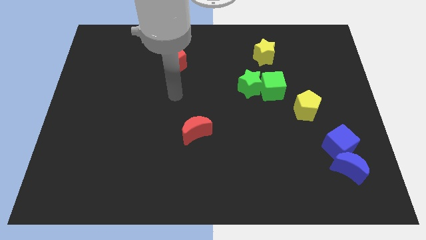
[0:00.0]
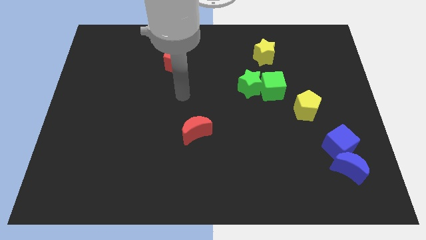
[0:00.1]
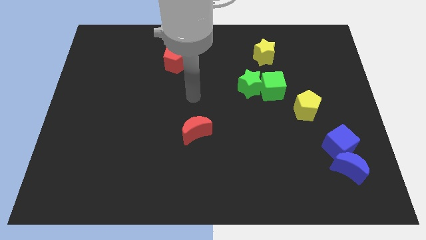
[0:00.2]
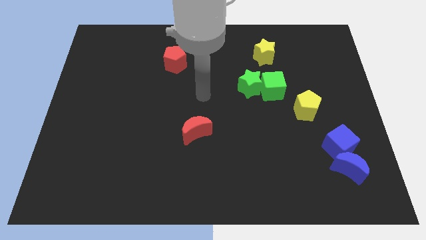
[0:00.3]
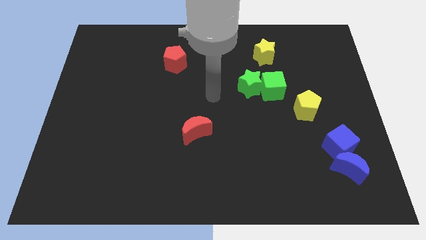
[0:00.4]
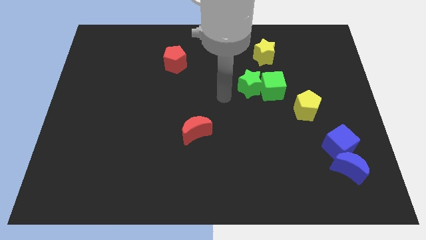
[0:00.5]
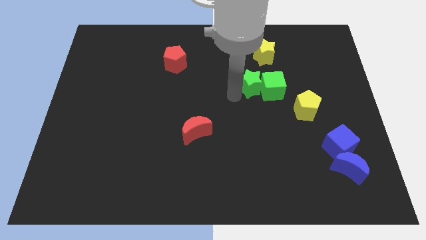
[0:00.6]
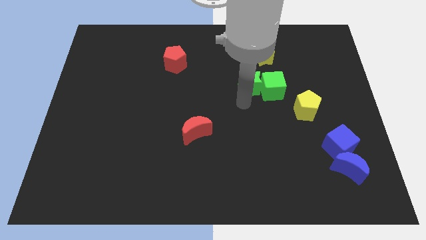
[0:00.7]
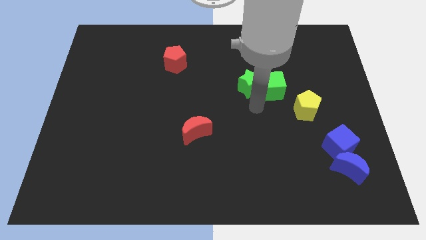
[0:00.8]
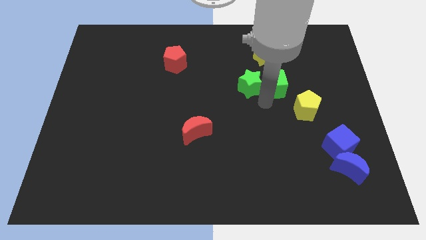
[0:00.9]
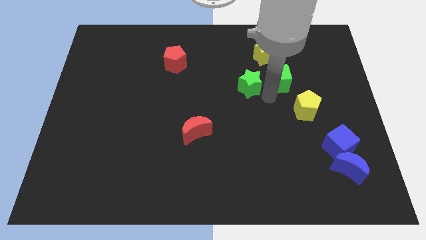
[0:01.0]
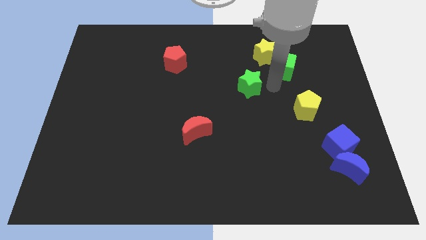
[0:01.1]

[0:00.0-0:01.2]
move the green star away from the green cube

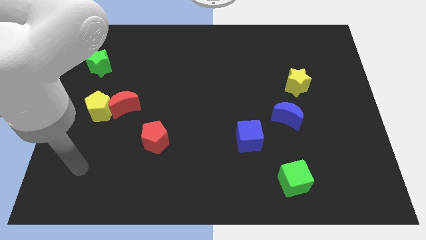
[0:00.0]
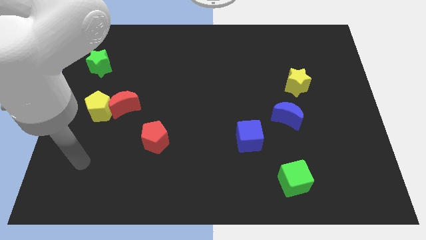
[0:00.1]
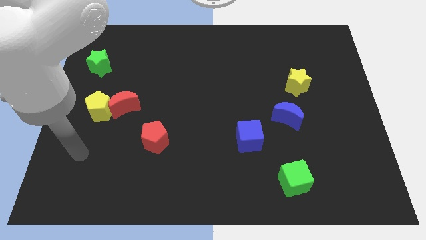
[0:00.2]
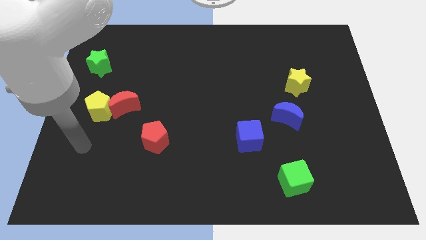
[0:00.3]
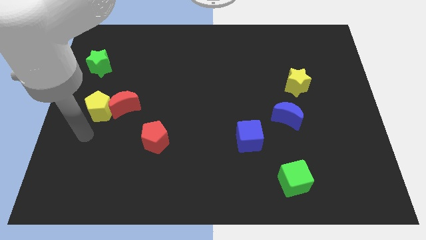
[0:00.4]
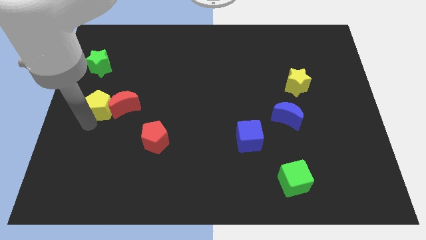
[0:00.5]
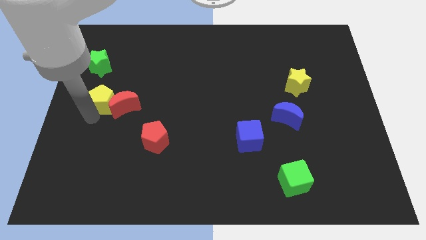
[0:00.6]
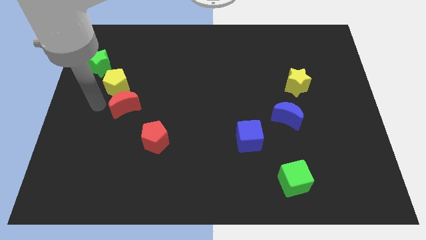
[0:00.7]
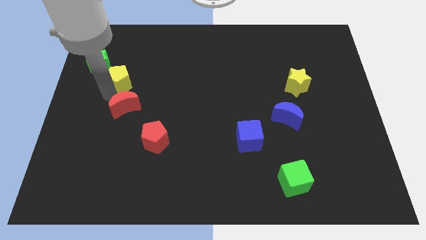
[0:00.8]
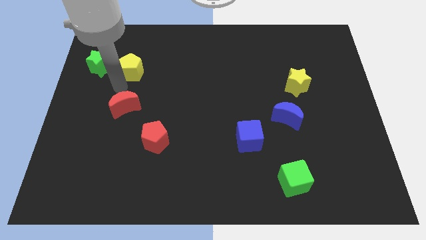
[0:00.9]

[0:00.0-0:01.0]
pull the red moon apart from the yellow pentagon

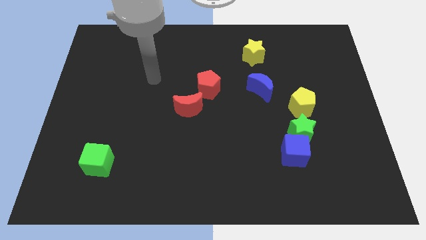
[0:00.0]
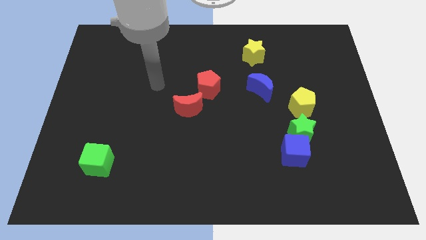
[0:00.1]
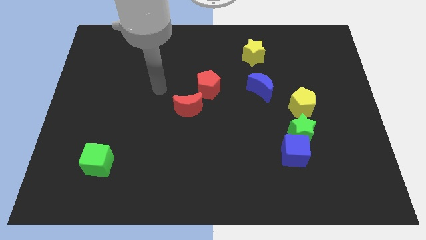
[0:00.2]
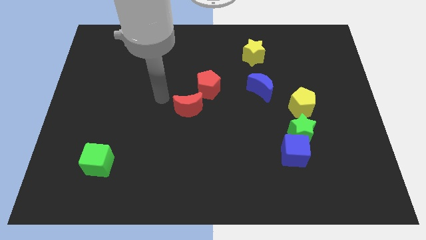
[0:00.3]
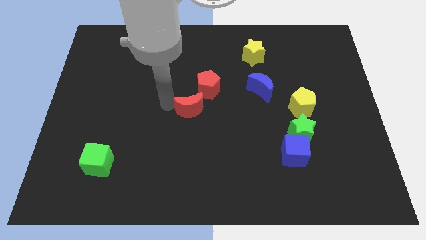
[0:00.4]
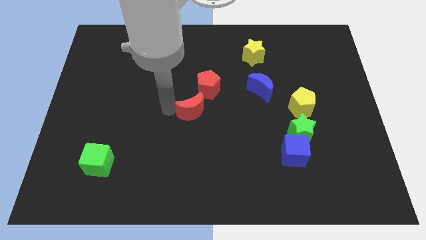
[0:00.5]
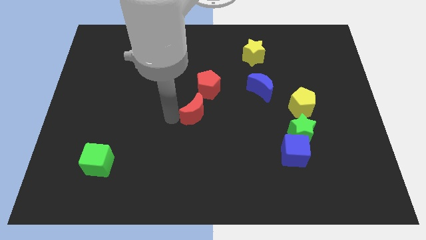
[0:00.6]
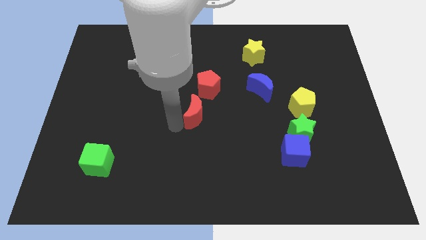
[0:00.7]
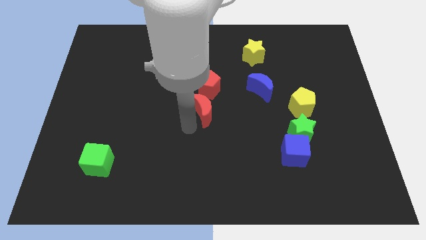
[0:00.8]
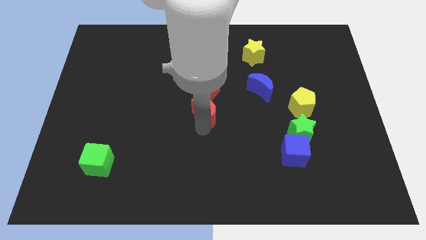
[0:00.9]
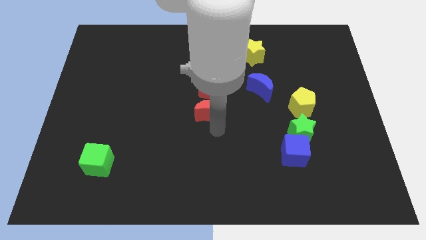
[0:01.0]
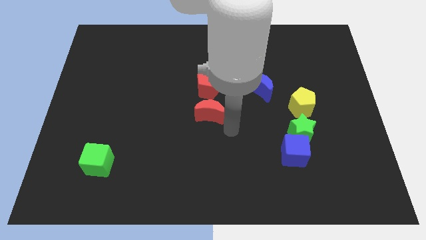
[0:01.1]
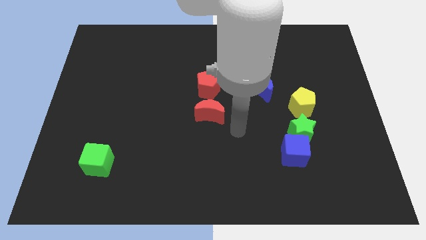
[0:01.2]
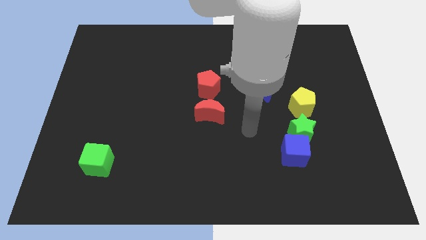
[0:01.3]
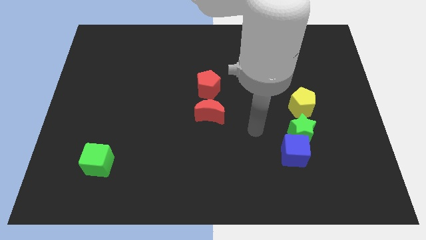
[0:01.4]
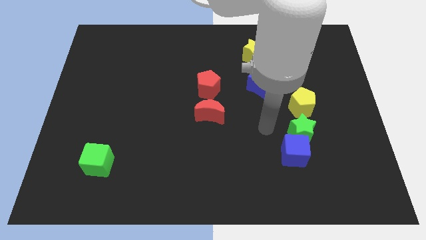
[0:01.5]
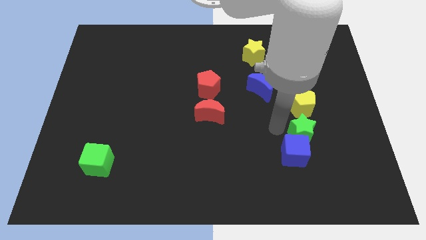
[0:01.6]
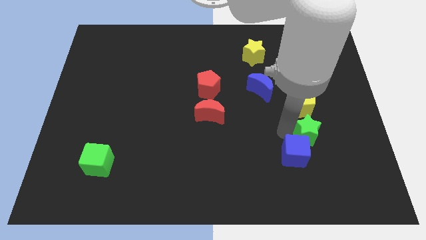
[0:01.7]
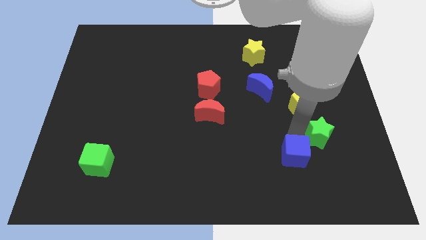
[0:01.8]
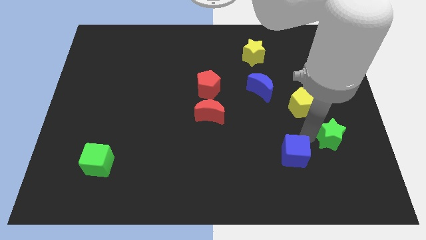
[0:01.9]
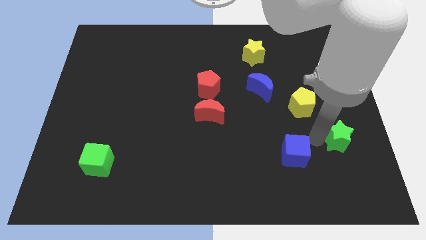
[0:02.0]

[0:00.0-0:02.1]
move the blue cube away from the green star

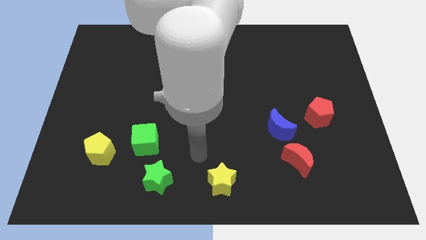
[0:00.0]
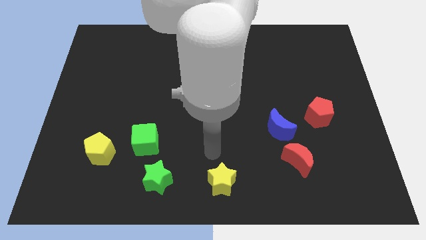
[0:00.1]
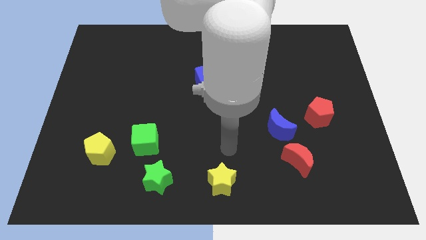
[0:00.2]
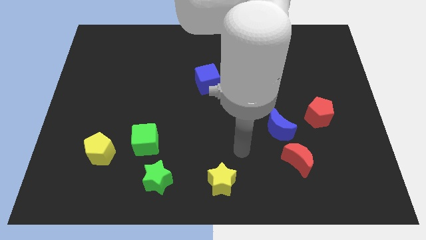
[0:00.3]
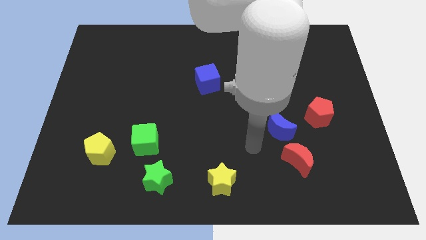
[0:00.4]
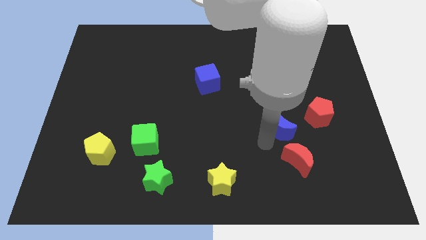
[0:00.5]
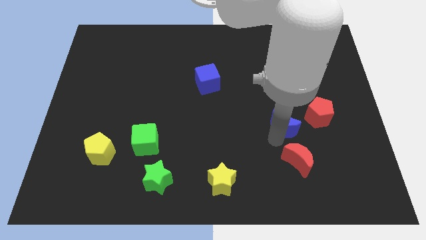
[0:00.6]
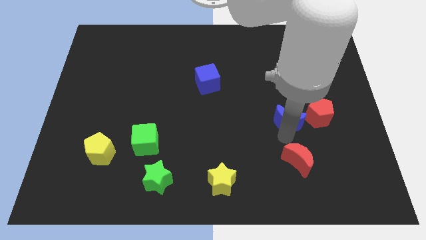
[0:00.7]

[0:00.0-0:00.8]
separate the red moon from the blue moon

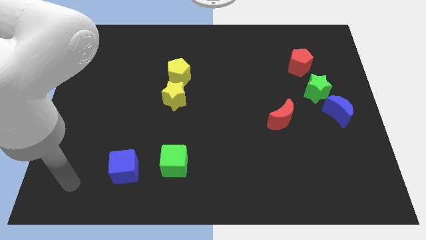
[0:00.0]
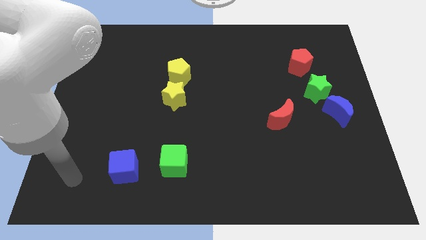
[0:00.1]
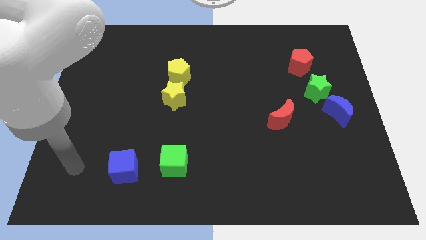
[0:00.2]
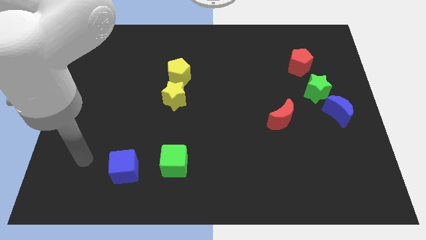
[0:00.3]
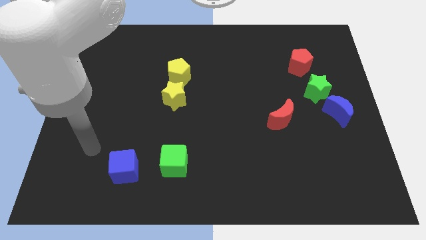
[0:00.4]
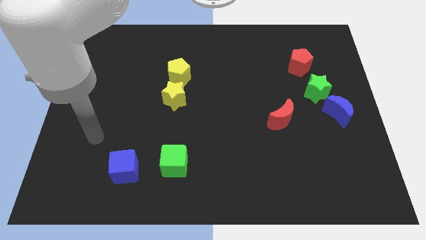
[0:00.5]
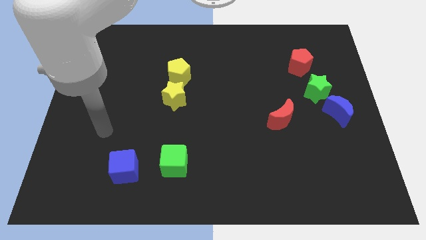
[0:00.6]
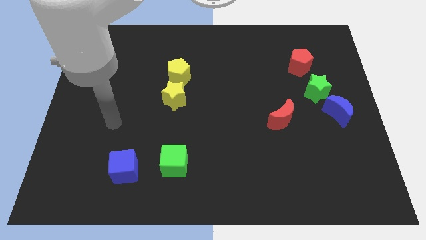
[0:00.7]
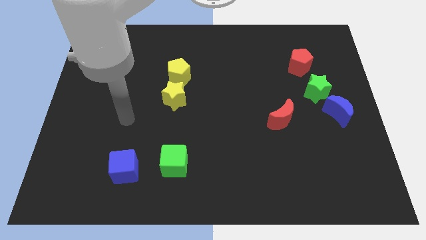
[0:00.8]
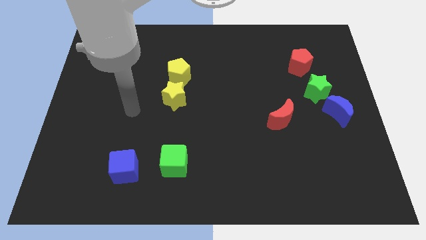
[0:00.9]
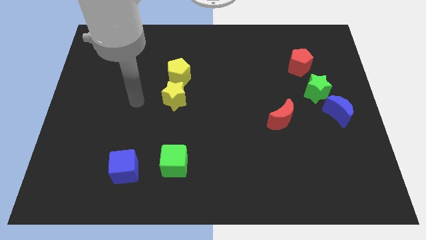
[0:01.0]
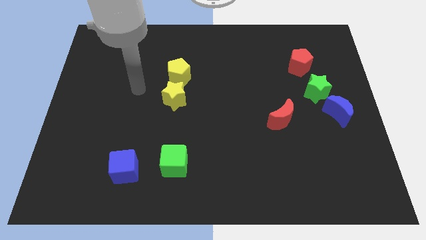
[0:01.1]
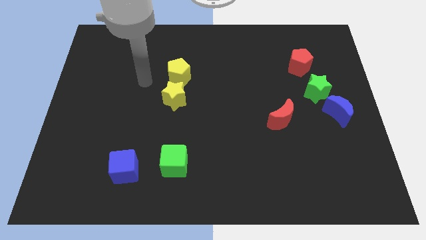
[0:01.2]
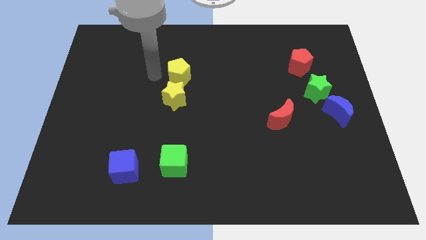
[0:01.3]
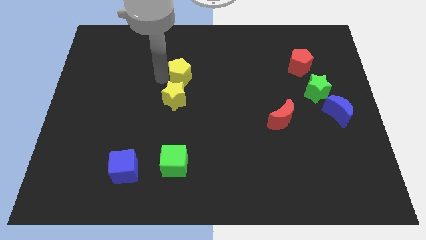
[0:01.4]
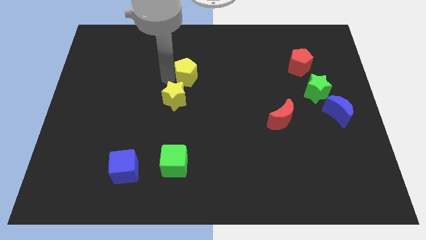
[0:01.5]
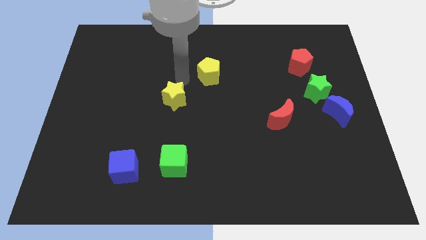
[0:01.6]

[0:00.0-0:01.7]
pull the yellow star apart from the yellow pentagon

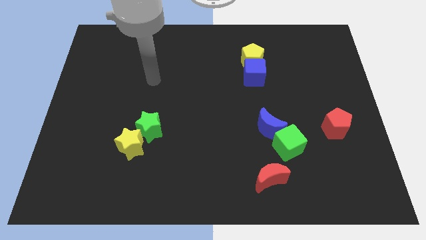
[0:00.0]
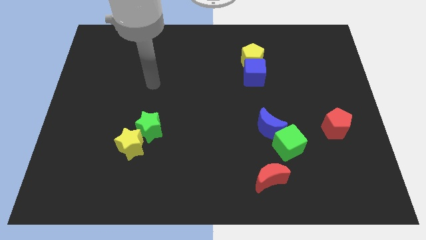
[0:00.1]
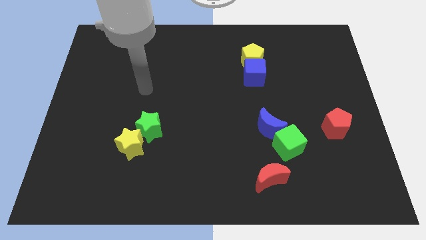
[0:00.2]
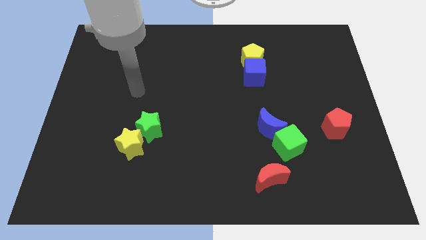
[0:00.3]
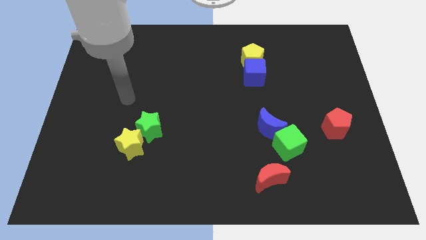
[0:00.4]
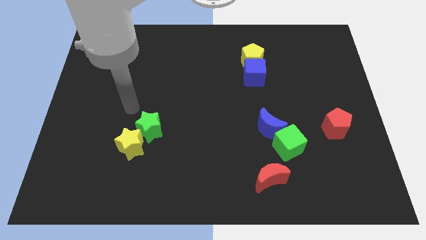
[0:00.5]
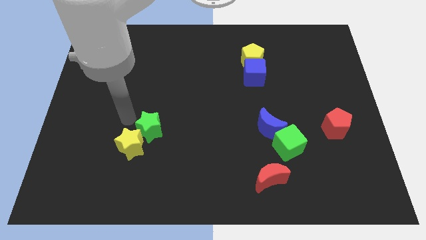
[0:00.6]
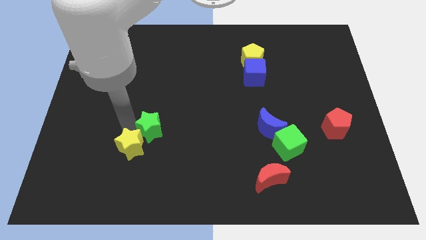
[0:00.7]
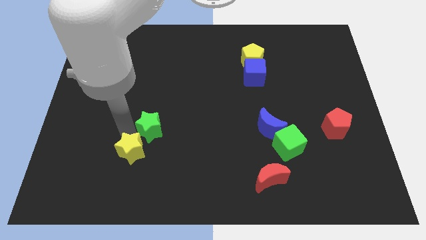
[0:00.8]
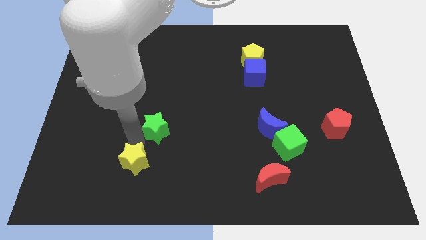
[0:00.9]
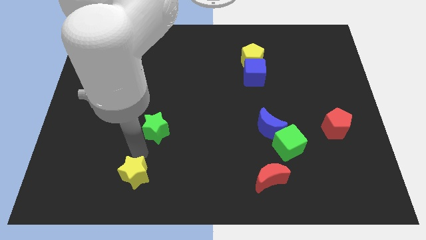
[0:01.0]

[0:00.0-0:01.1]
separate the green star from the yellow star

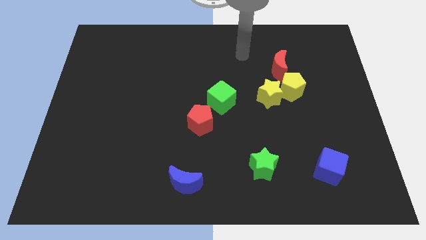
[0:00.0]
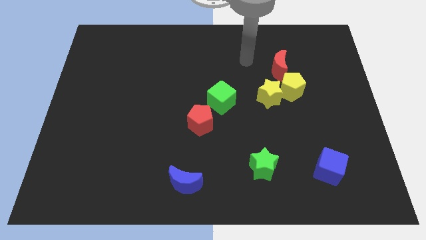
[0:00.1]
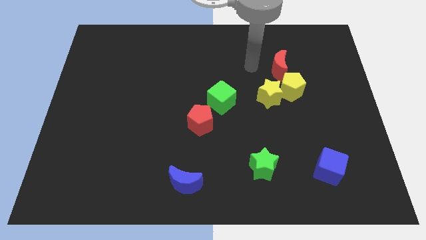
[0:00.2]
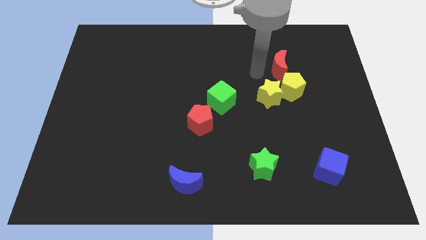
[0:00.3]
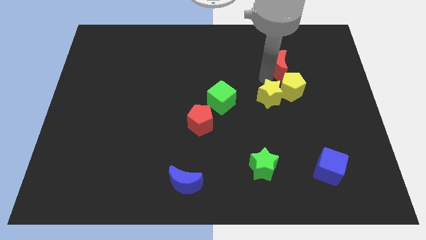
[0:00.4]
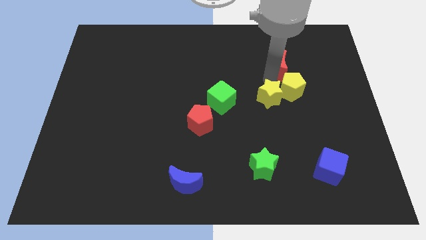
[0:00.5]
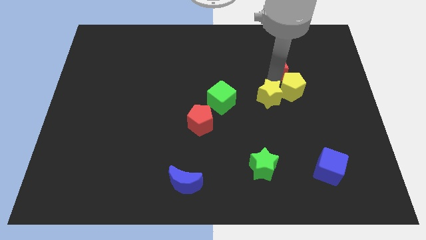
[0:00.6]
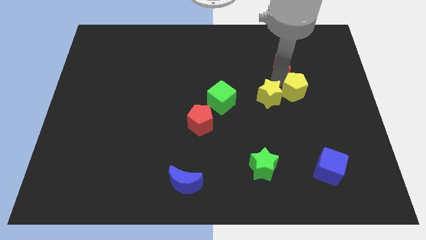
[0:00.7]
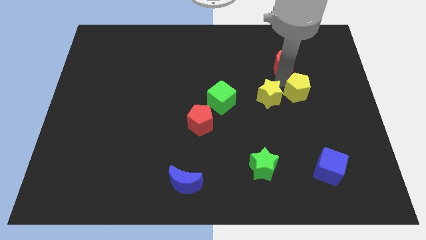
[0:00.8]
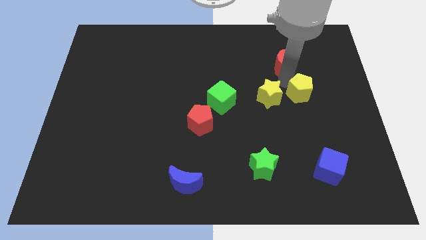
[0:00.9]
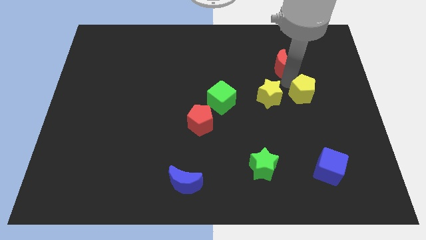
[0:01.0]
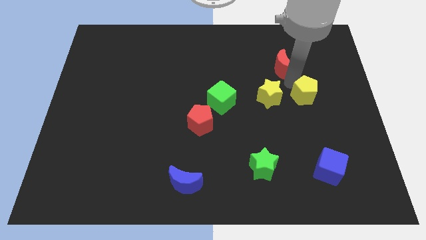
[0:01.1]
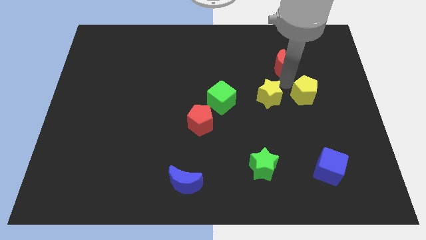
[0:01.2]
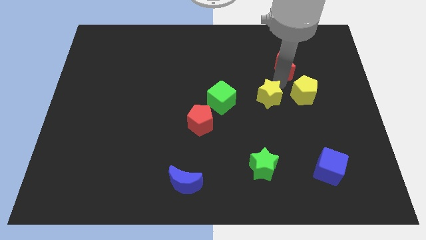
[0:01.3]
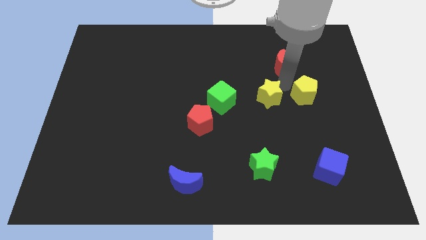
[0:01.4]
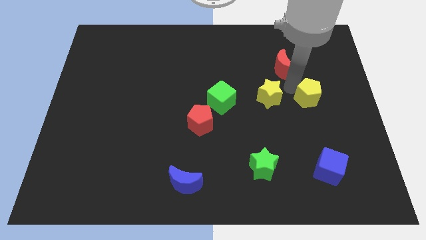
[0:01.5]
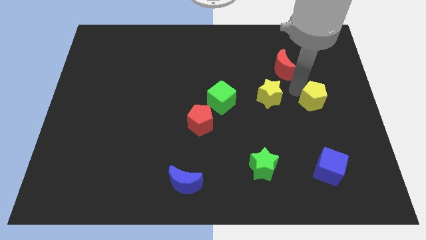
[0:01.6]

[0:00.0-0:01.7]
pull the yellow pentagon apart from the yellow star and red moon
